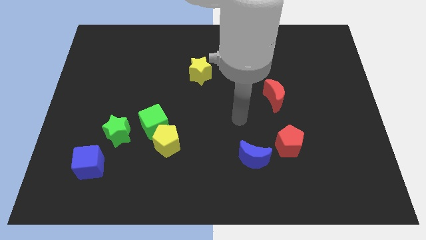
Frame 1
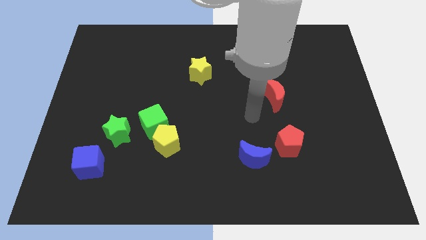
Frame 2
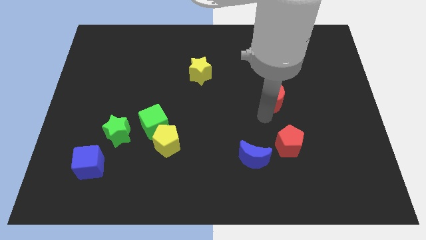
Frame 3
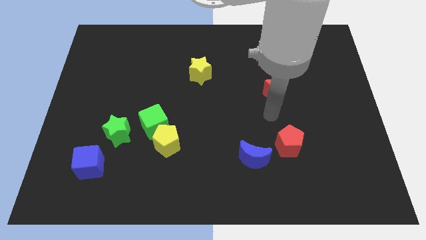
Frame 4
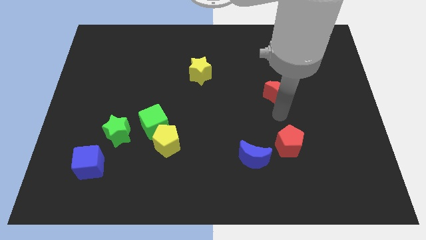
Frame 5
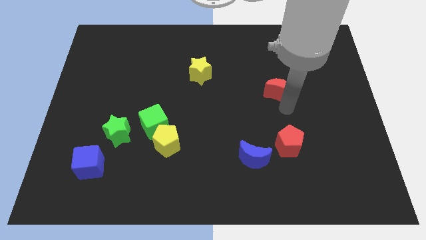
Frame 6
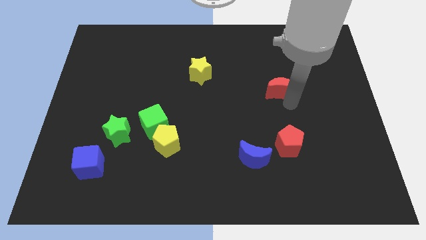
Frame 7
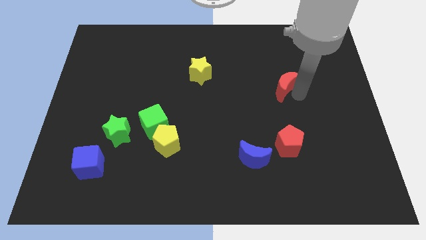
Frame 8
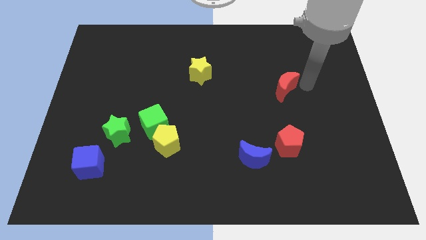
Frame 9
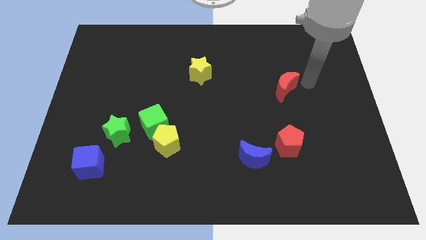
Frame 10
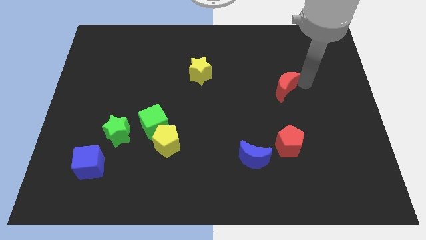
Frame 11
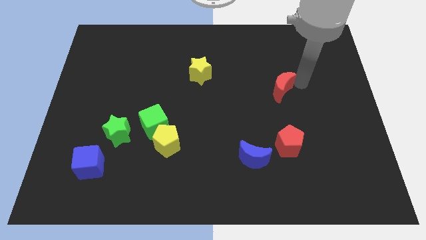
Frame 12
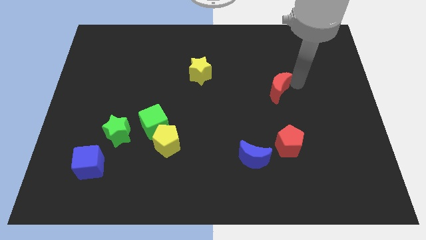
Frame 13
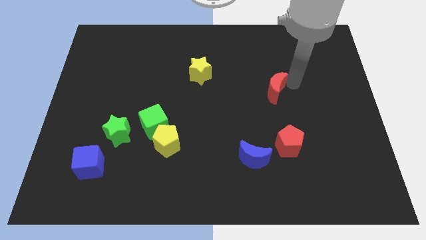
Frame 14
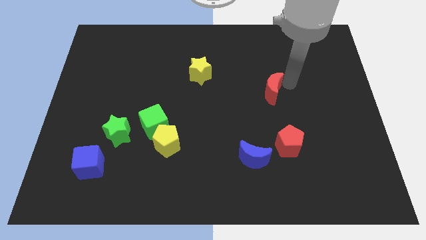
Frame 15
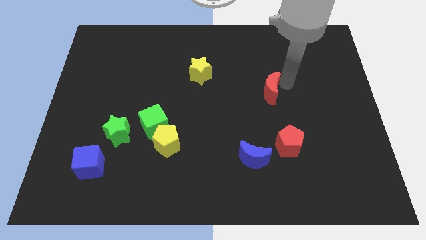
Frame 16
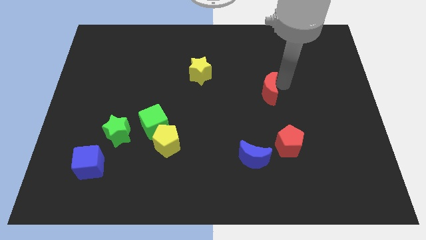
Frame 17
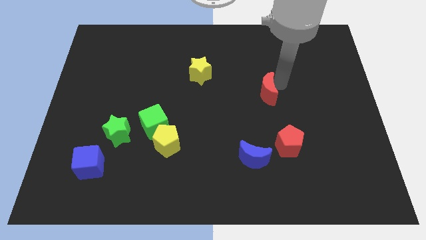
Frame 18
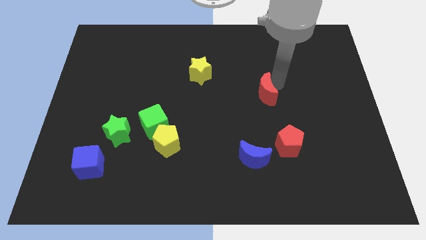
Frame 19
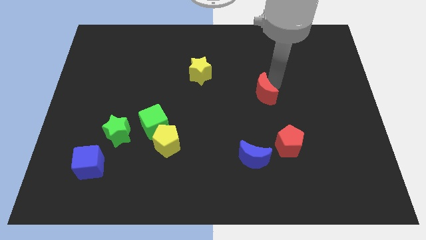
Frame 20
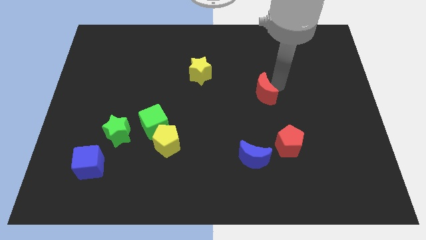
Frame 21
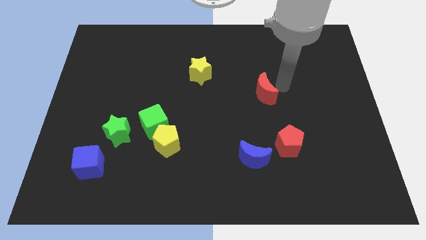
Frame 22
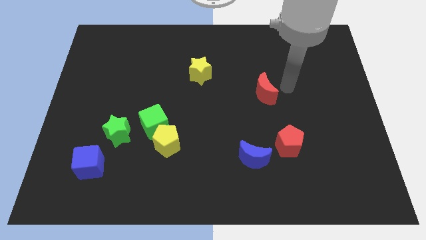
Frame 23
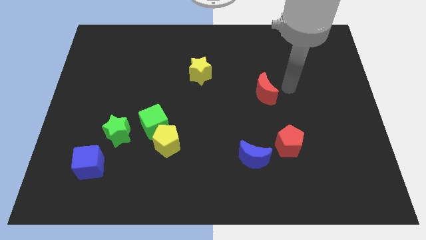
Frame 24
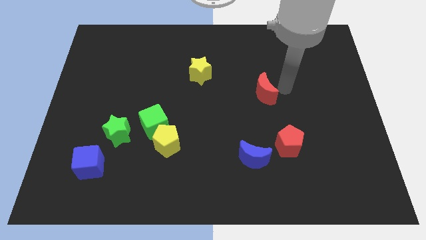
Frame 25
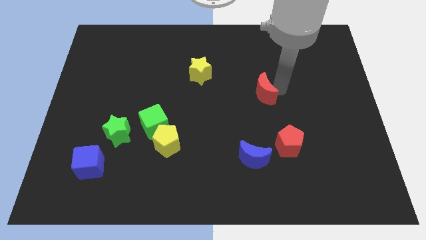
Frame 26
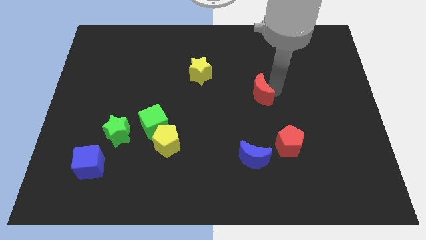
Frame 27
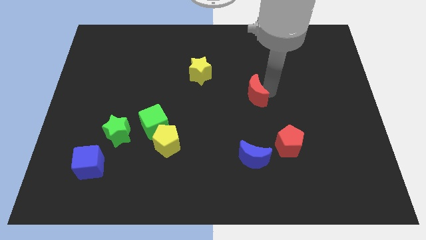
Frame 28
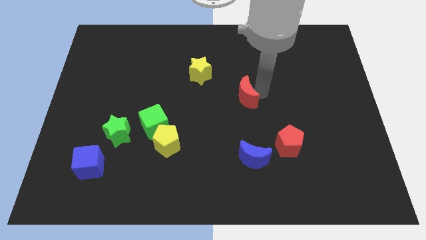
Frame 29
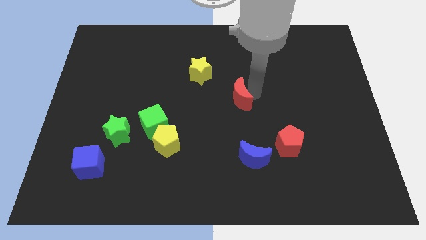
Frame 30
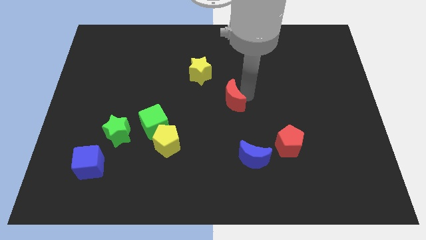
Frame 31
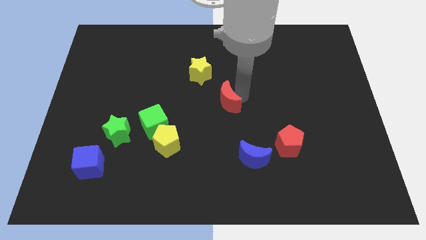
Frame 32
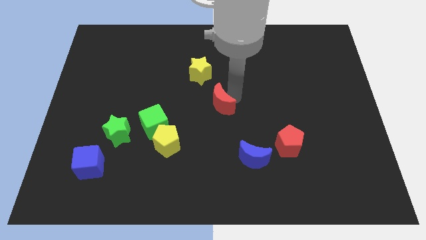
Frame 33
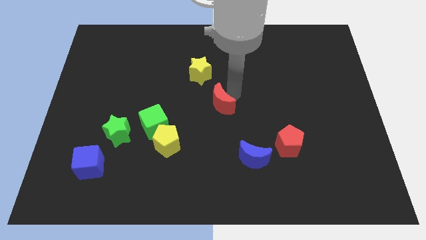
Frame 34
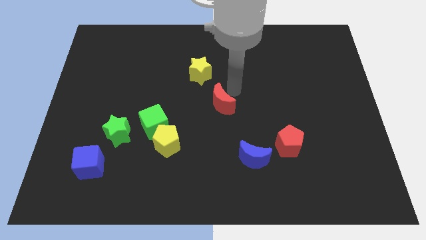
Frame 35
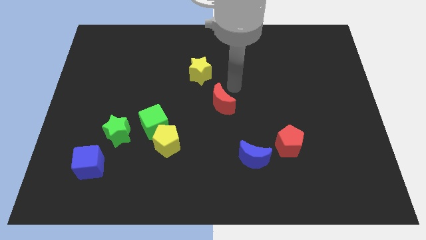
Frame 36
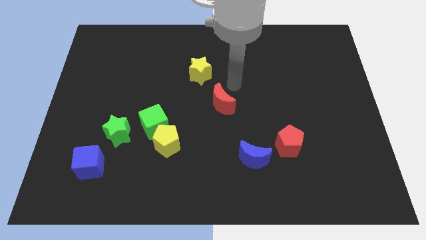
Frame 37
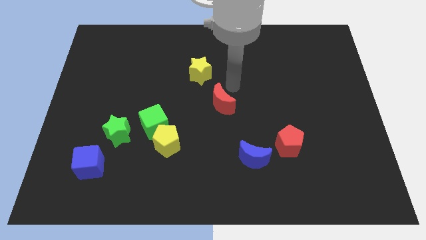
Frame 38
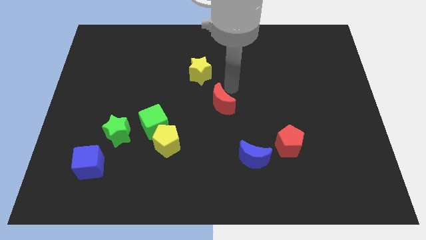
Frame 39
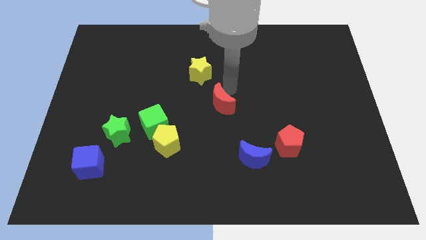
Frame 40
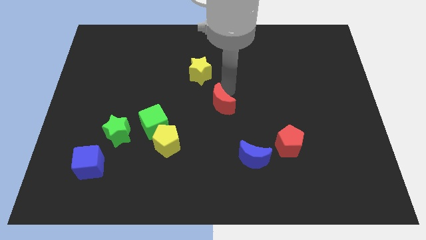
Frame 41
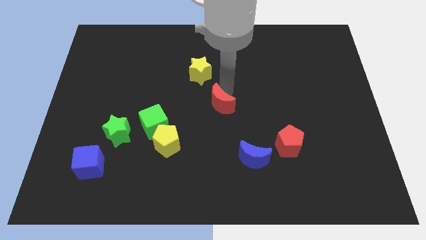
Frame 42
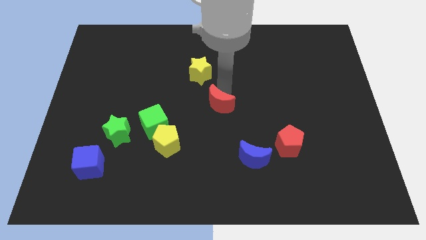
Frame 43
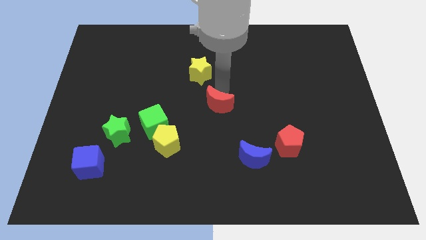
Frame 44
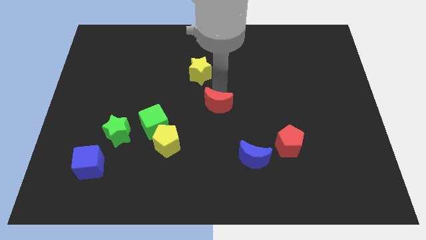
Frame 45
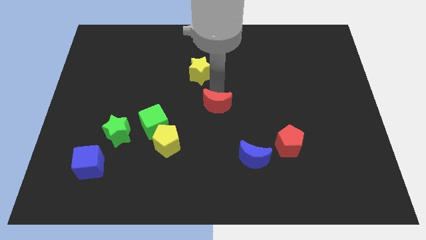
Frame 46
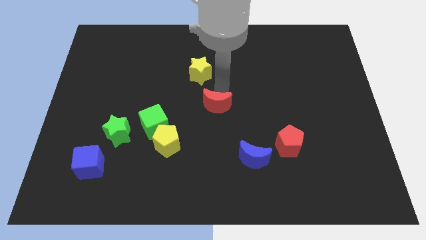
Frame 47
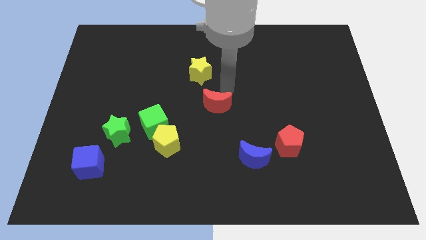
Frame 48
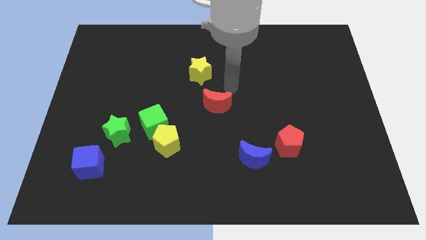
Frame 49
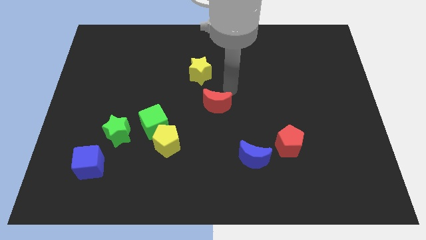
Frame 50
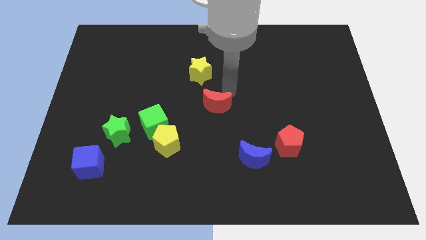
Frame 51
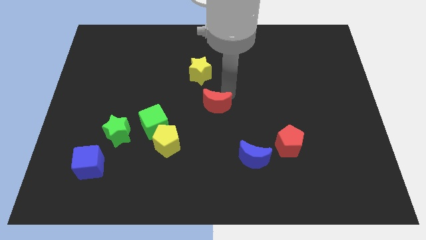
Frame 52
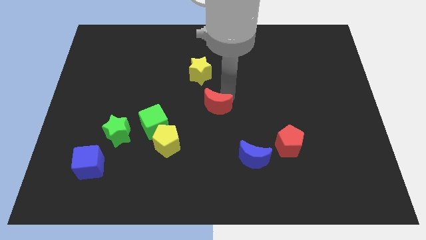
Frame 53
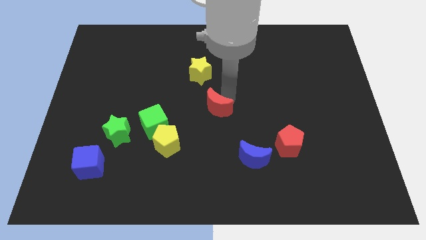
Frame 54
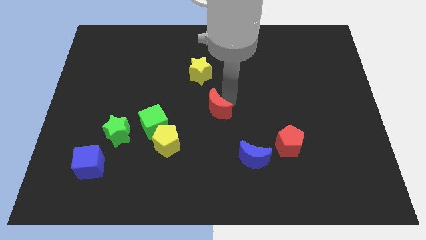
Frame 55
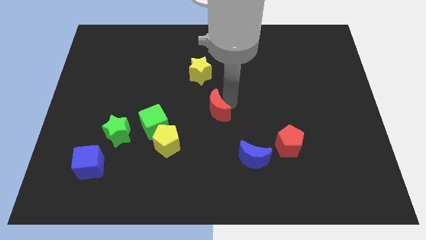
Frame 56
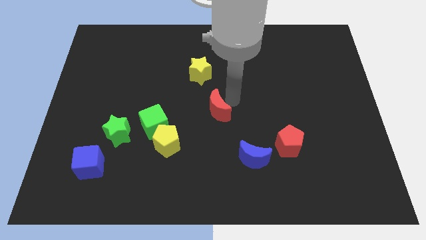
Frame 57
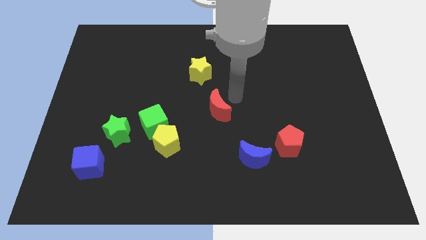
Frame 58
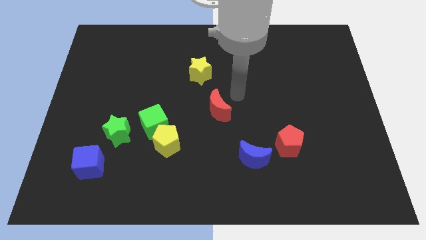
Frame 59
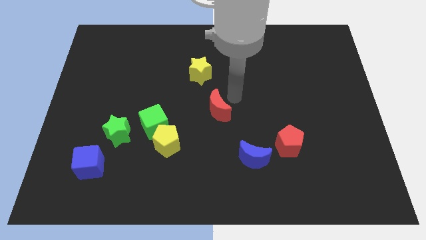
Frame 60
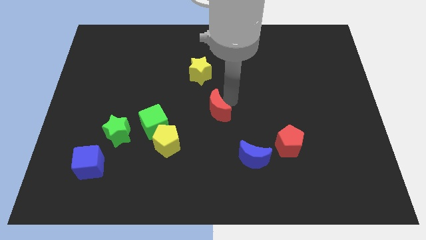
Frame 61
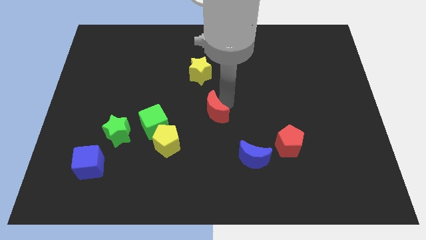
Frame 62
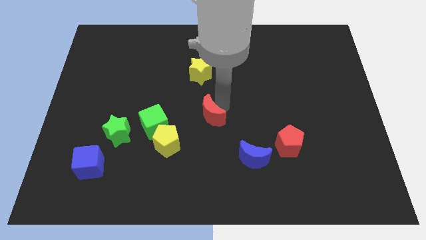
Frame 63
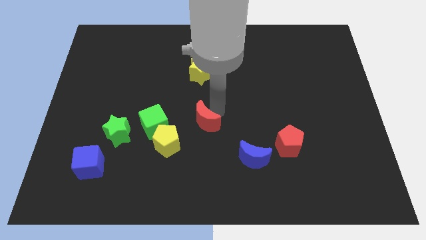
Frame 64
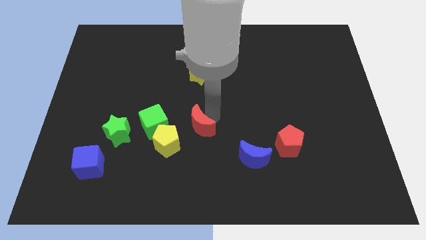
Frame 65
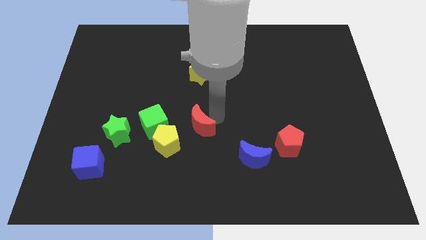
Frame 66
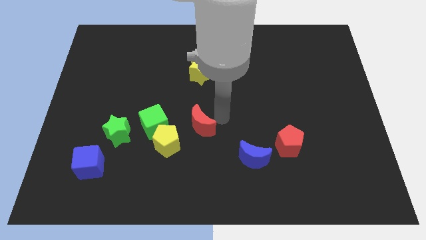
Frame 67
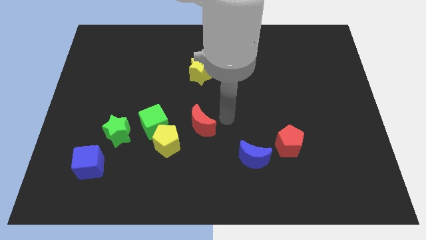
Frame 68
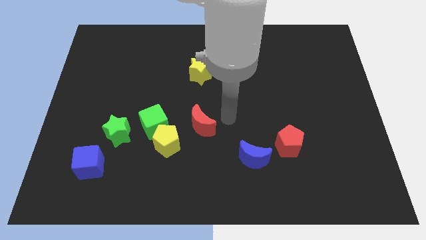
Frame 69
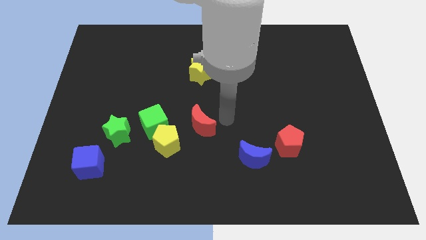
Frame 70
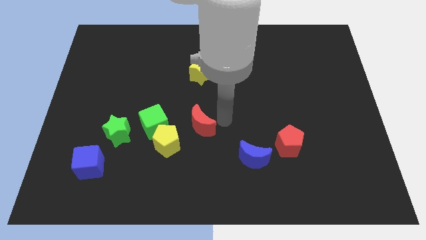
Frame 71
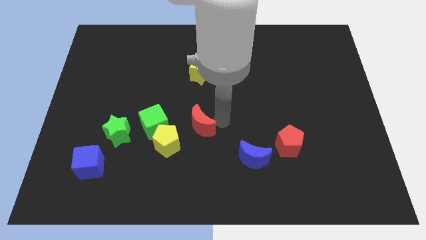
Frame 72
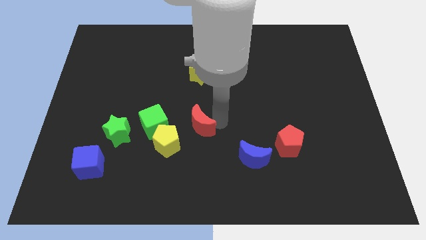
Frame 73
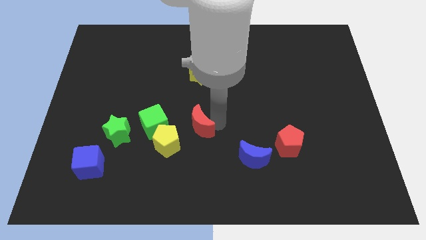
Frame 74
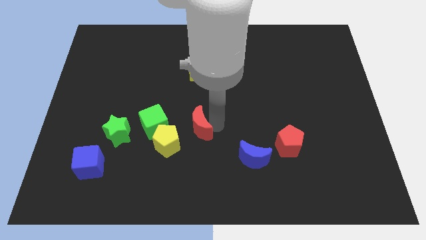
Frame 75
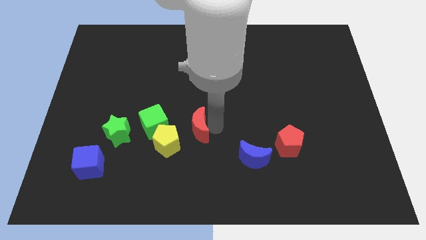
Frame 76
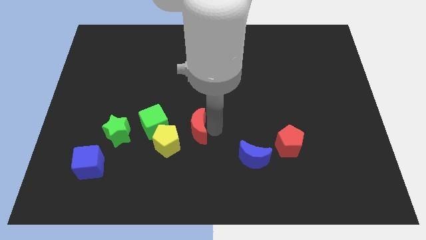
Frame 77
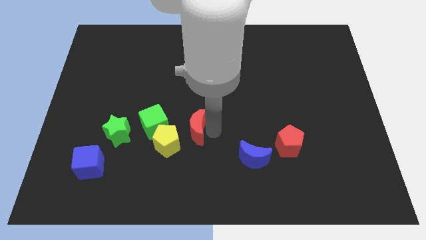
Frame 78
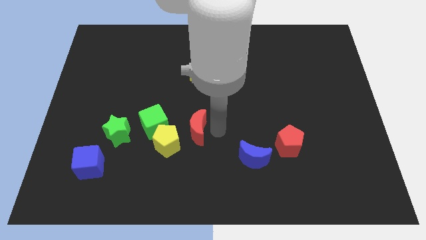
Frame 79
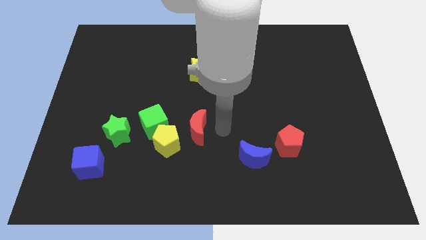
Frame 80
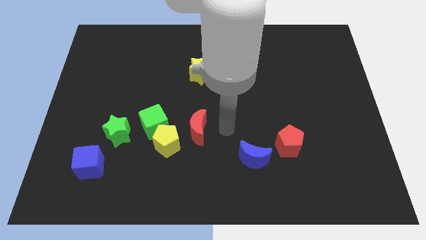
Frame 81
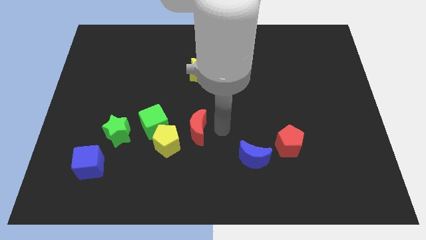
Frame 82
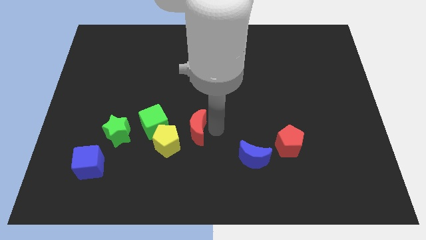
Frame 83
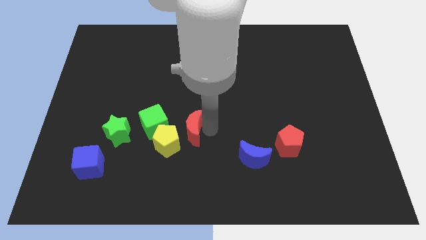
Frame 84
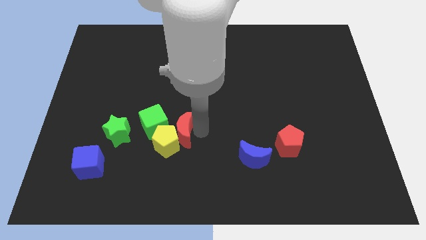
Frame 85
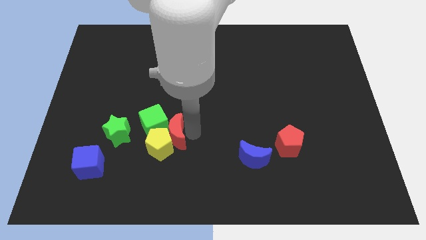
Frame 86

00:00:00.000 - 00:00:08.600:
move the red moon towards the green cube
